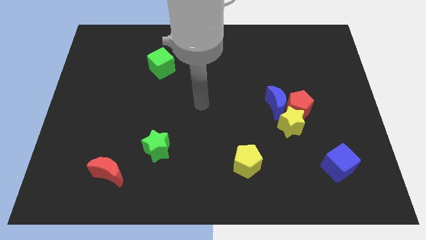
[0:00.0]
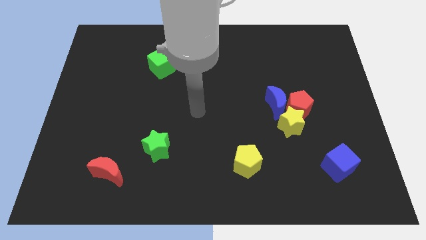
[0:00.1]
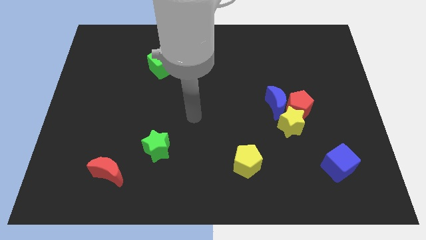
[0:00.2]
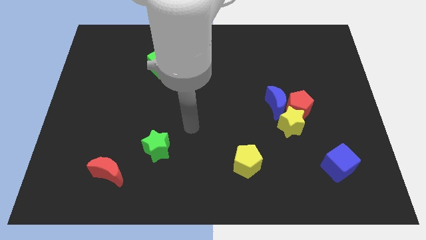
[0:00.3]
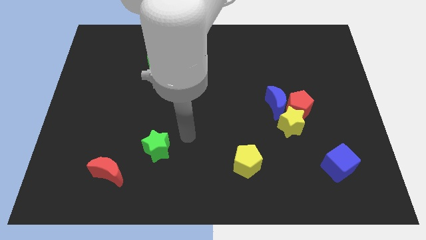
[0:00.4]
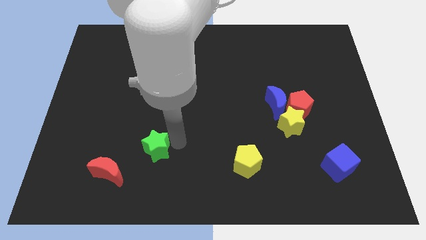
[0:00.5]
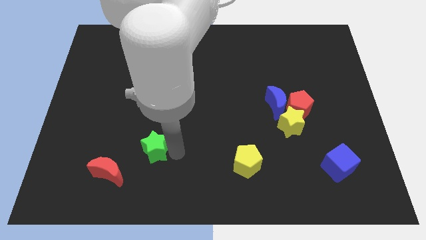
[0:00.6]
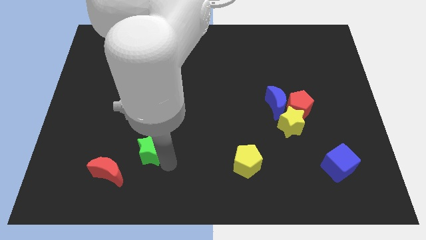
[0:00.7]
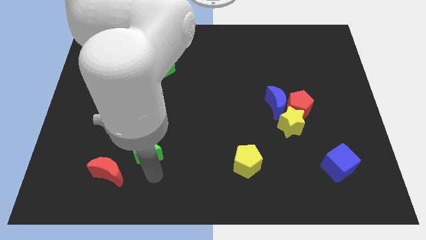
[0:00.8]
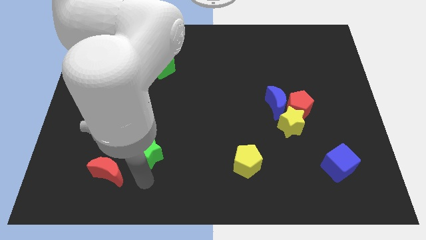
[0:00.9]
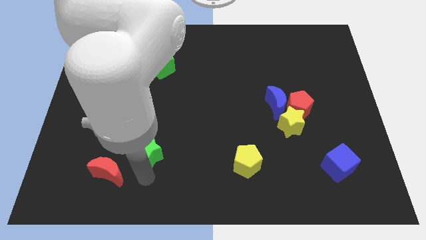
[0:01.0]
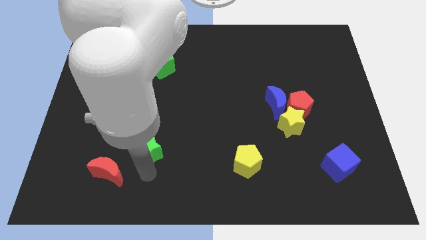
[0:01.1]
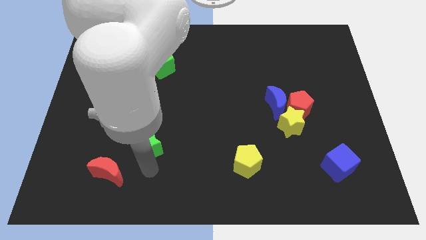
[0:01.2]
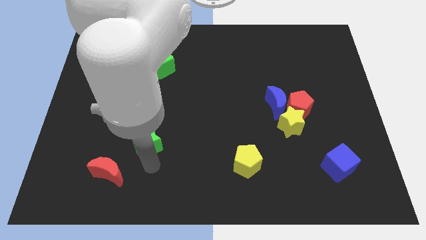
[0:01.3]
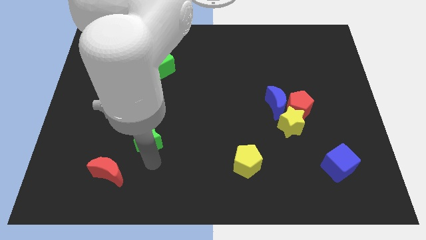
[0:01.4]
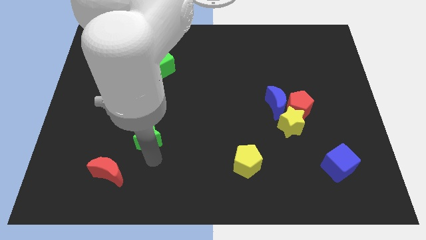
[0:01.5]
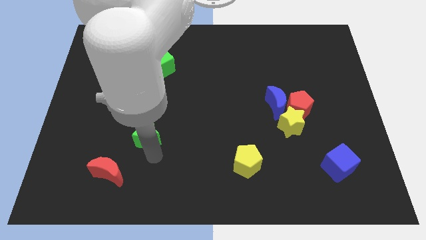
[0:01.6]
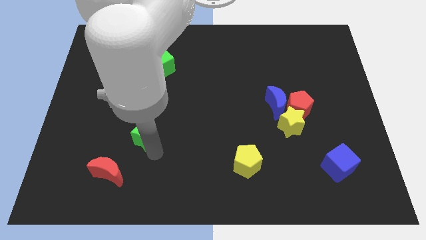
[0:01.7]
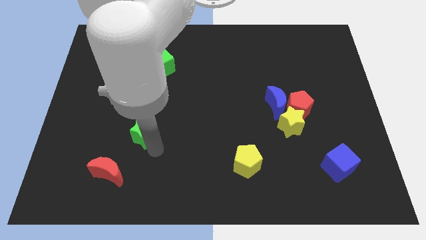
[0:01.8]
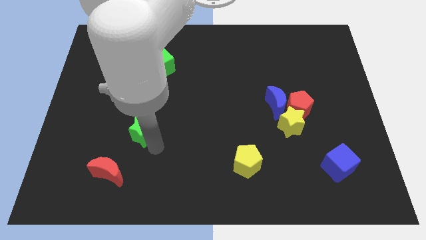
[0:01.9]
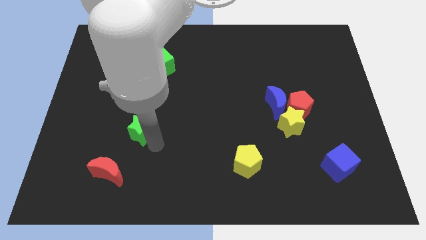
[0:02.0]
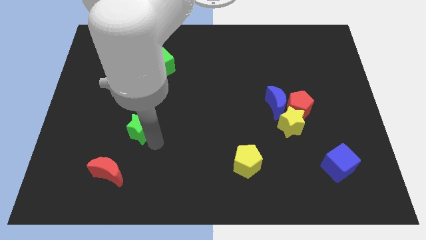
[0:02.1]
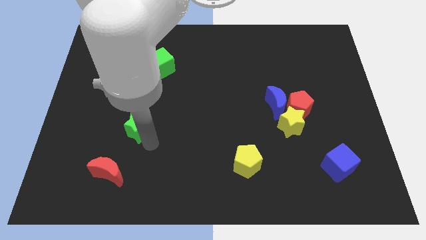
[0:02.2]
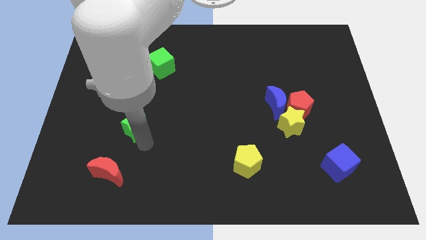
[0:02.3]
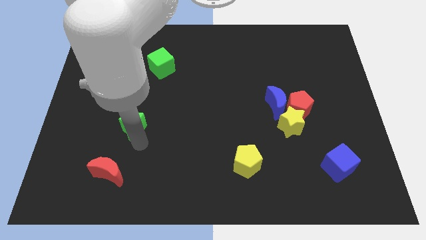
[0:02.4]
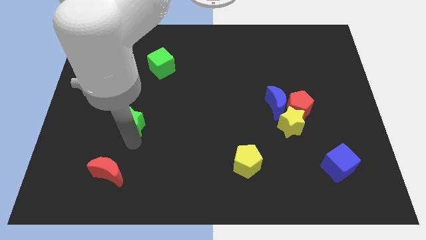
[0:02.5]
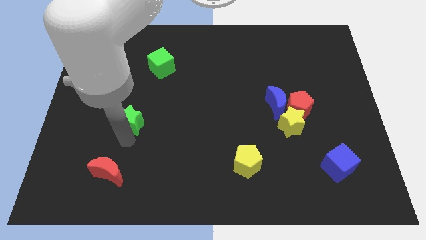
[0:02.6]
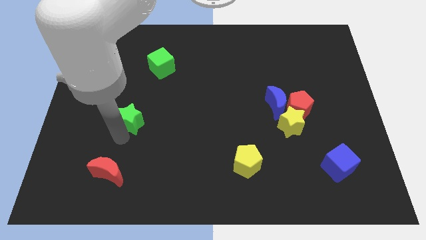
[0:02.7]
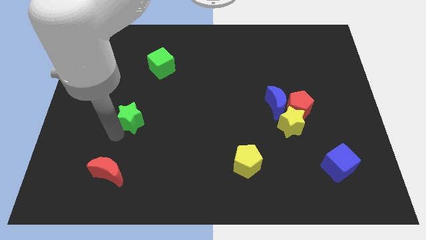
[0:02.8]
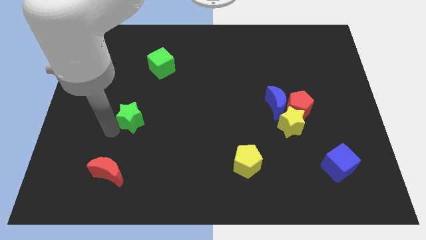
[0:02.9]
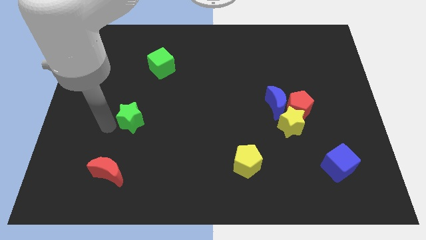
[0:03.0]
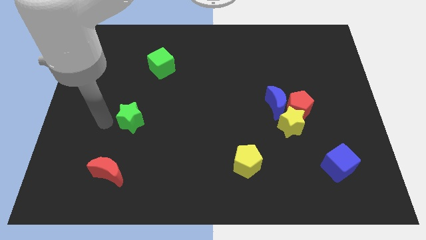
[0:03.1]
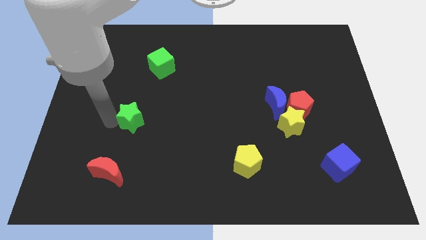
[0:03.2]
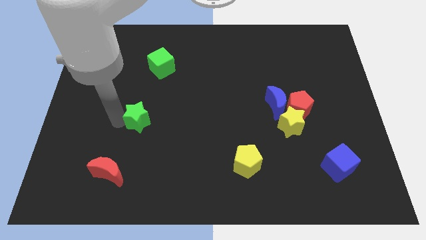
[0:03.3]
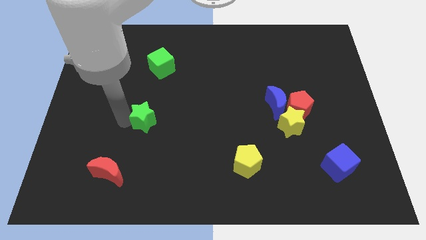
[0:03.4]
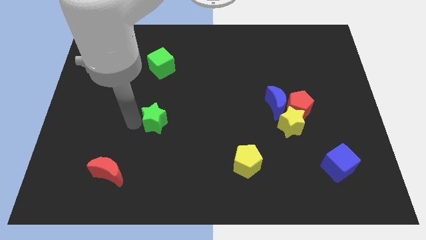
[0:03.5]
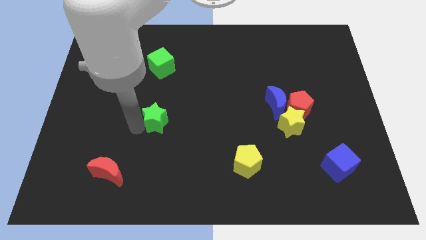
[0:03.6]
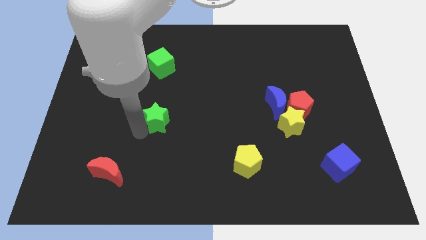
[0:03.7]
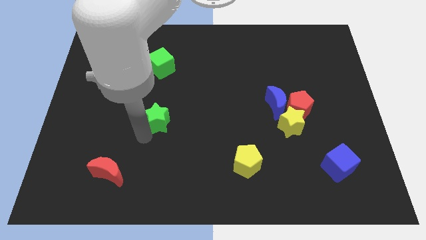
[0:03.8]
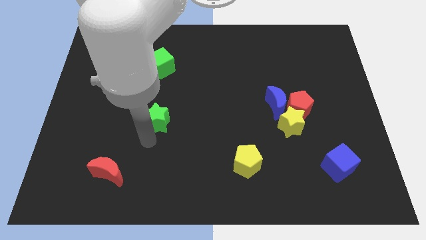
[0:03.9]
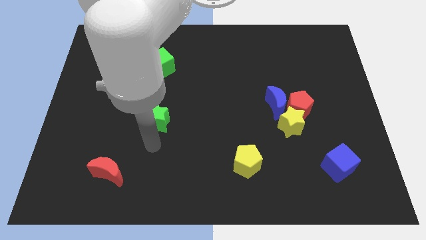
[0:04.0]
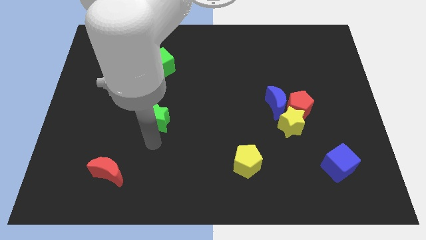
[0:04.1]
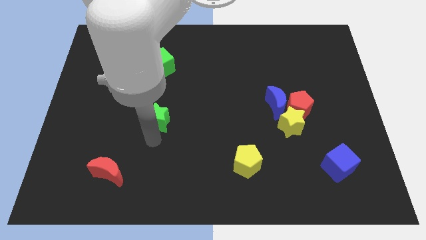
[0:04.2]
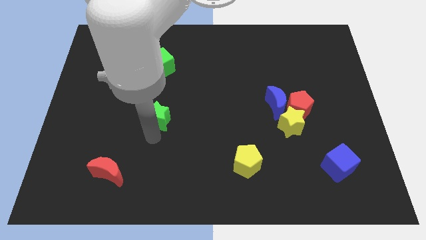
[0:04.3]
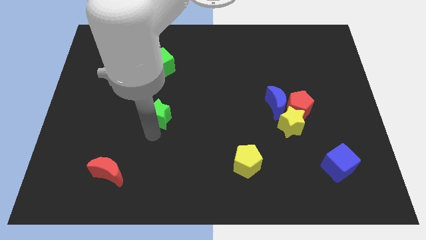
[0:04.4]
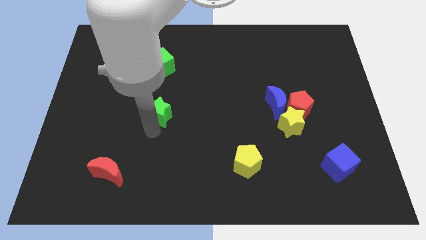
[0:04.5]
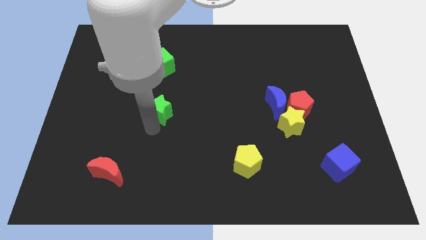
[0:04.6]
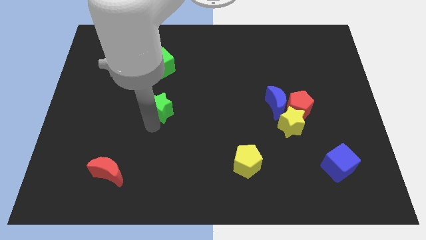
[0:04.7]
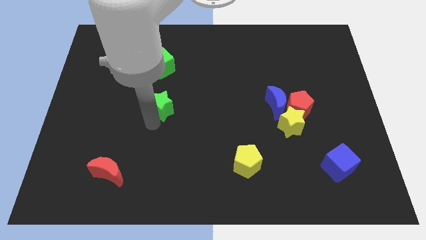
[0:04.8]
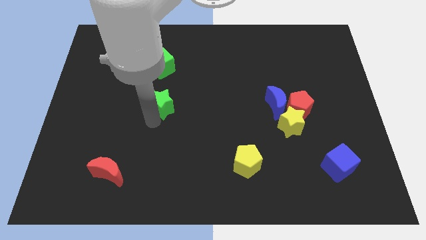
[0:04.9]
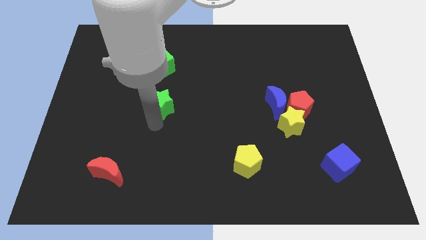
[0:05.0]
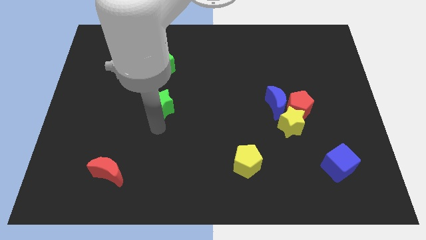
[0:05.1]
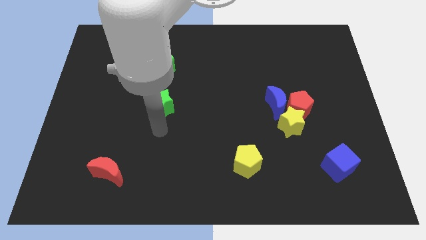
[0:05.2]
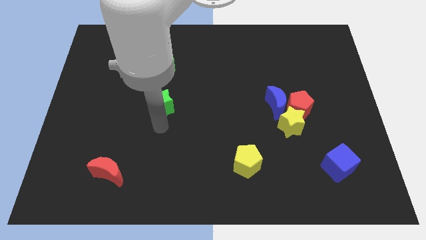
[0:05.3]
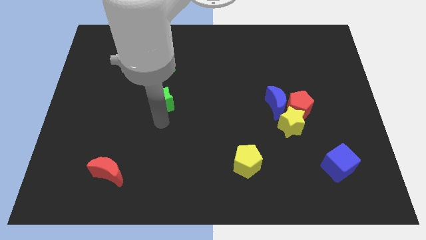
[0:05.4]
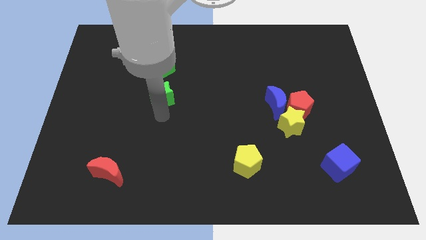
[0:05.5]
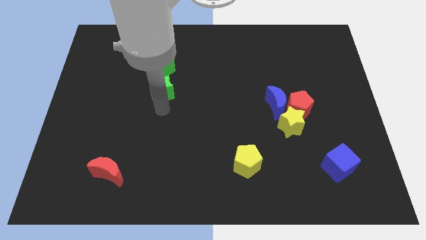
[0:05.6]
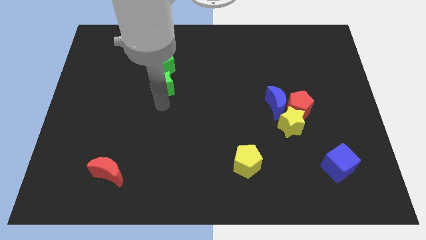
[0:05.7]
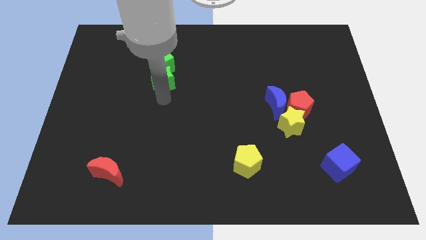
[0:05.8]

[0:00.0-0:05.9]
move the green star close to the green cube

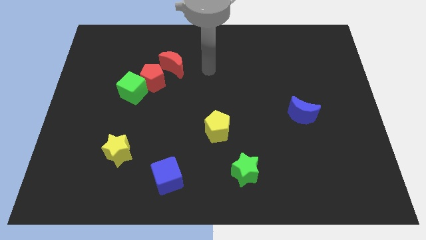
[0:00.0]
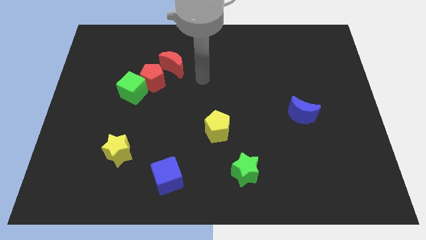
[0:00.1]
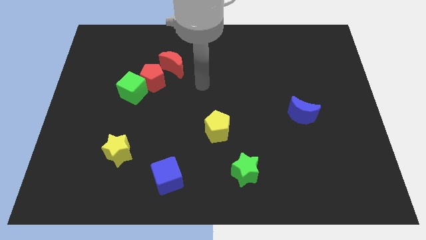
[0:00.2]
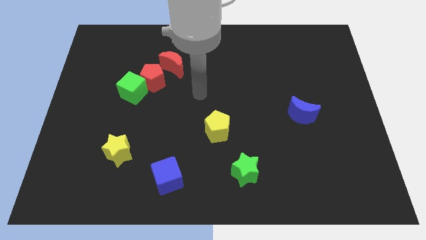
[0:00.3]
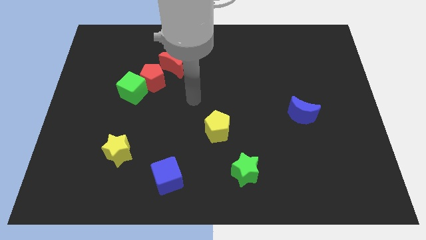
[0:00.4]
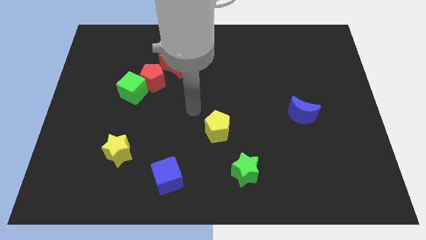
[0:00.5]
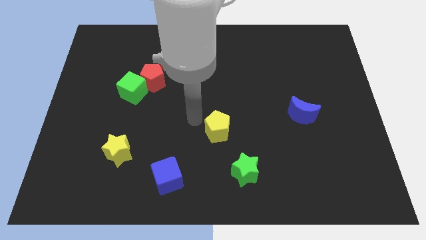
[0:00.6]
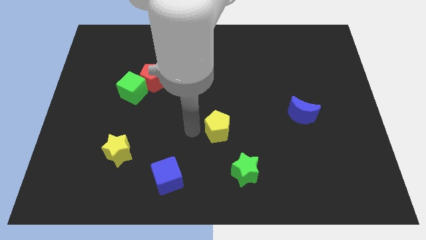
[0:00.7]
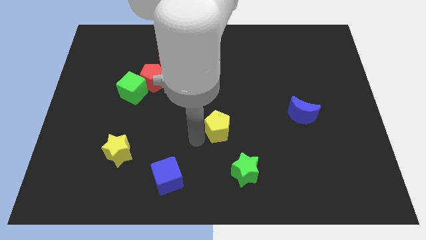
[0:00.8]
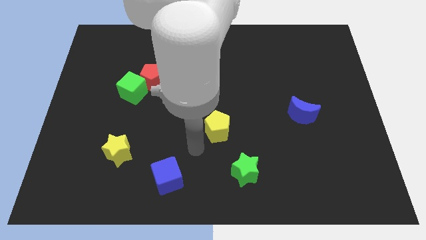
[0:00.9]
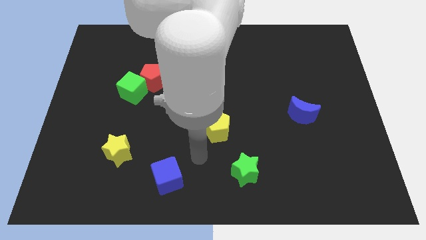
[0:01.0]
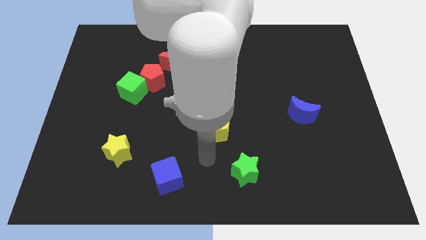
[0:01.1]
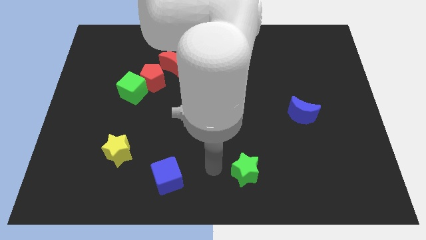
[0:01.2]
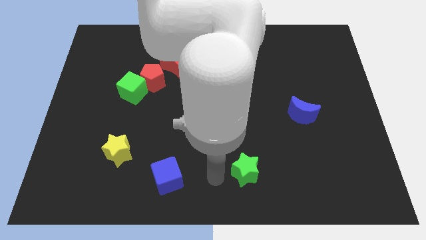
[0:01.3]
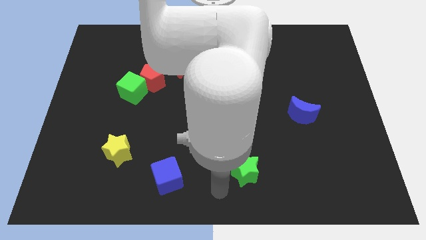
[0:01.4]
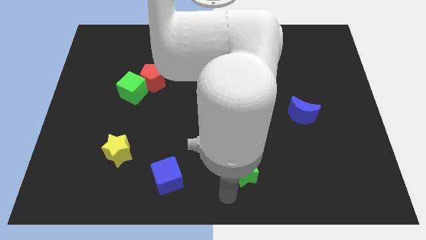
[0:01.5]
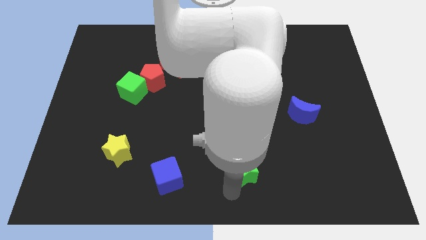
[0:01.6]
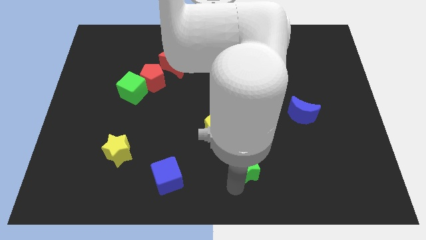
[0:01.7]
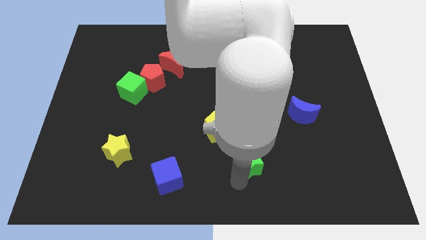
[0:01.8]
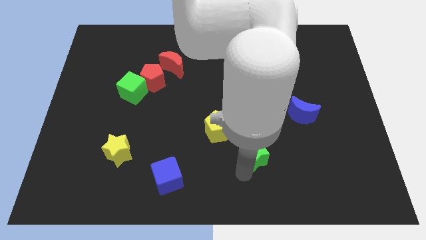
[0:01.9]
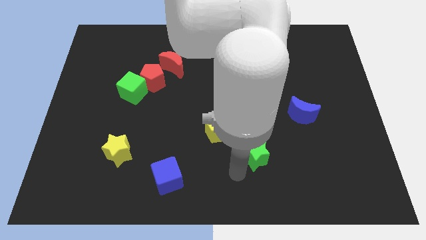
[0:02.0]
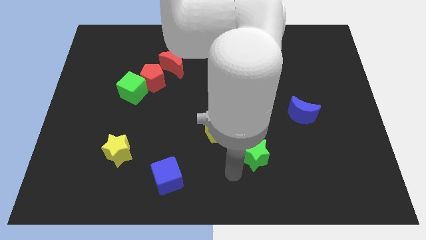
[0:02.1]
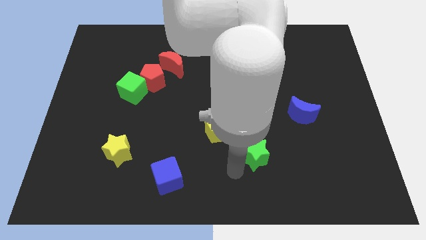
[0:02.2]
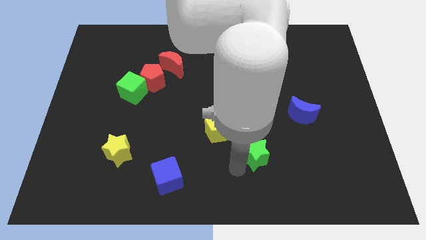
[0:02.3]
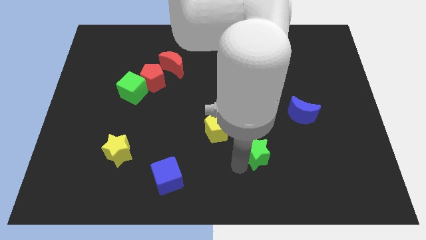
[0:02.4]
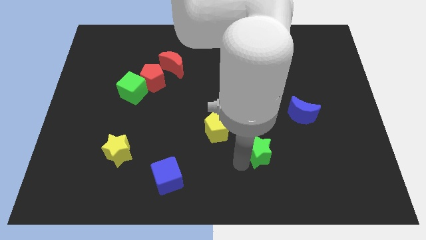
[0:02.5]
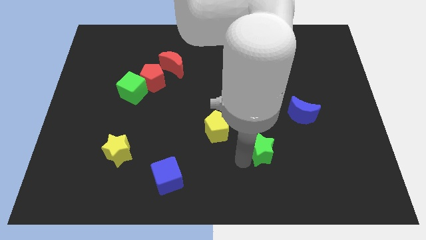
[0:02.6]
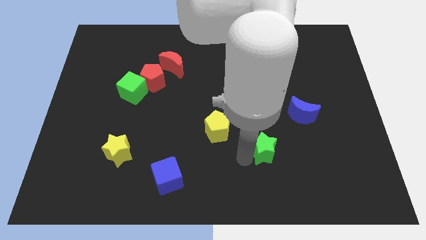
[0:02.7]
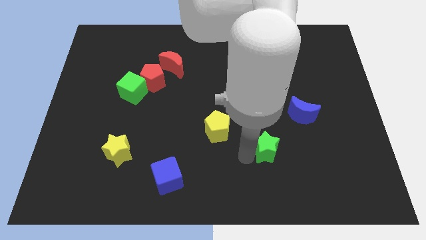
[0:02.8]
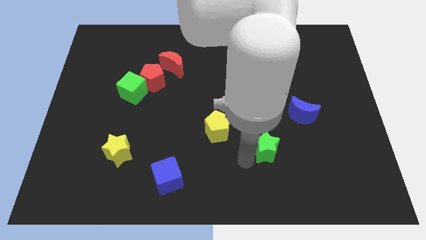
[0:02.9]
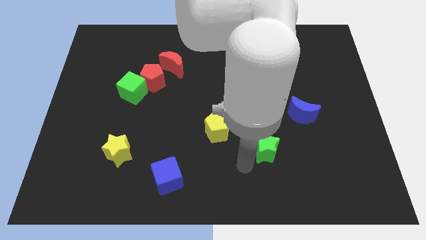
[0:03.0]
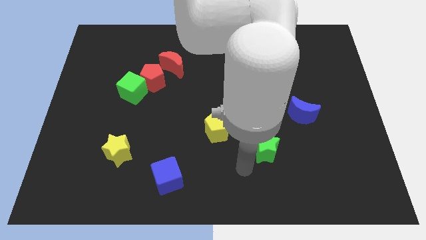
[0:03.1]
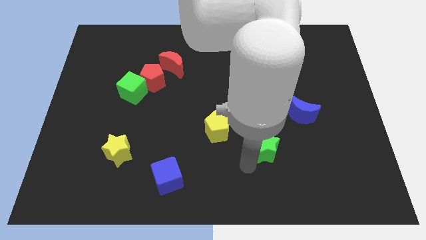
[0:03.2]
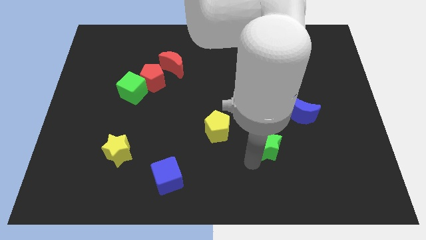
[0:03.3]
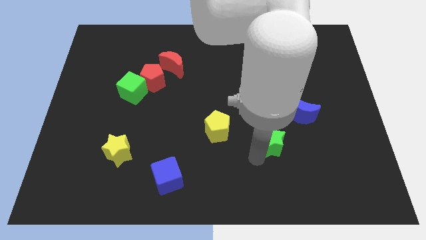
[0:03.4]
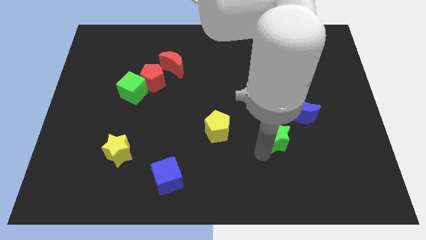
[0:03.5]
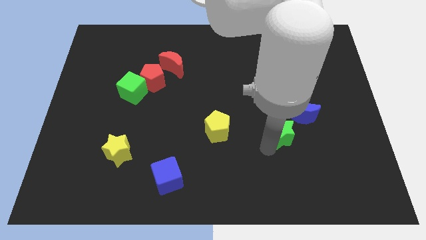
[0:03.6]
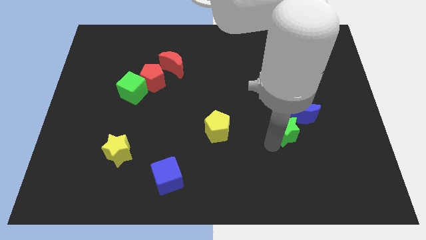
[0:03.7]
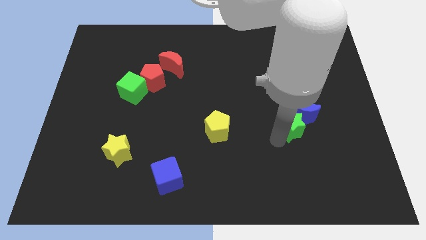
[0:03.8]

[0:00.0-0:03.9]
put the green star close to the blue moon
